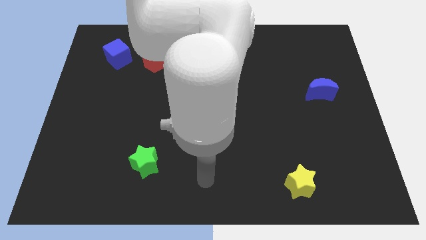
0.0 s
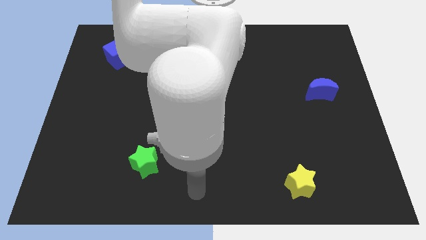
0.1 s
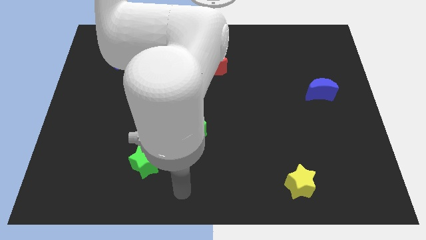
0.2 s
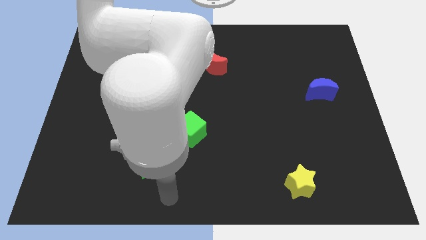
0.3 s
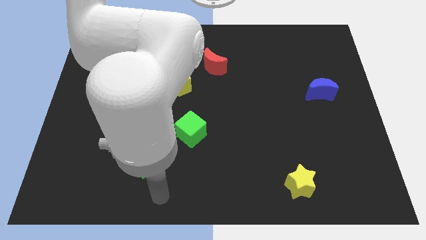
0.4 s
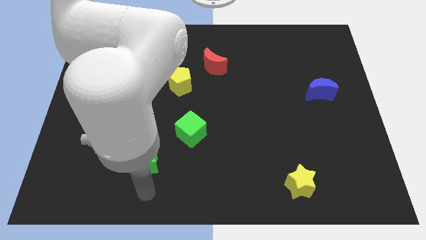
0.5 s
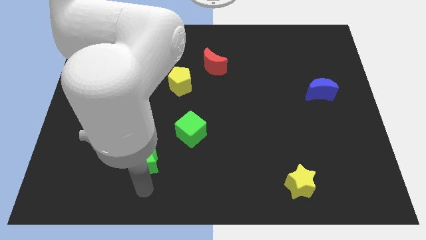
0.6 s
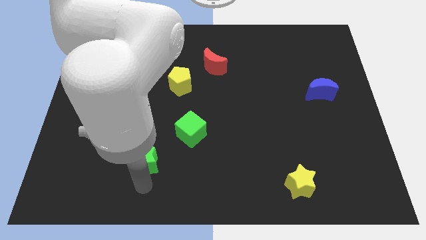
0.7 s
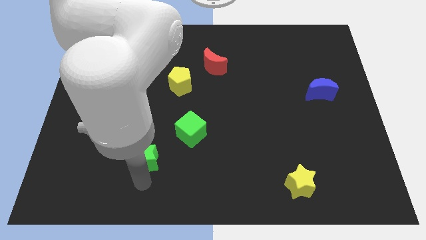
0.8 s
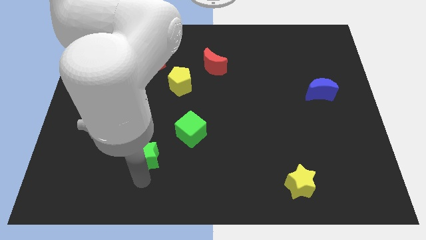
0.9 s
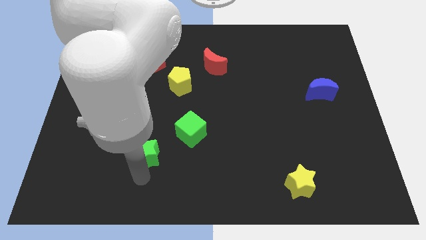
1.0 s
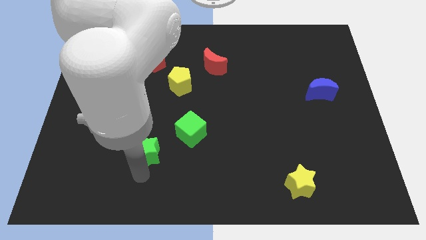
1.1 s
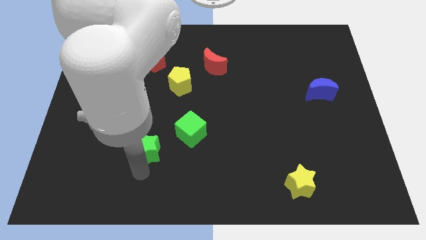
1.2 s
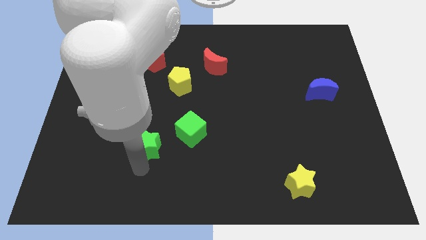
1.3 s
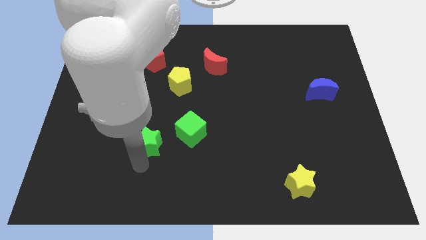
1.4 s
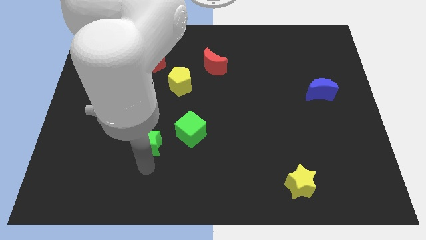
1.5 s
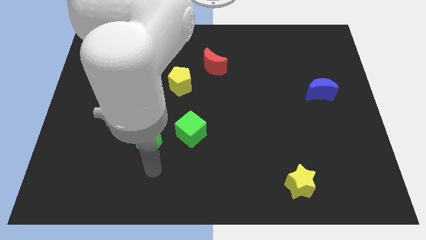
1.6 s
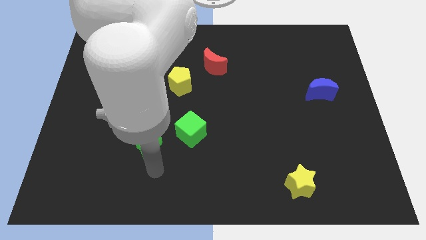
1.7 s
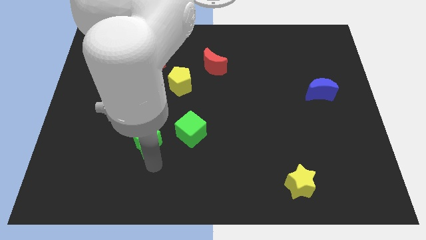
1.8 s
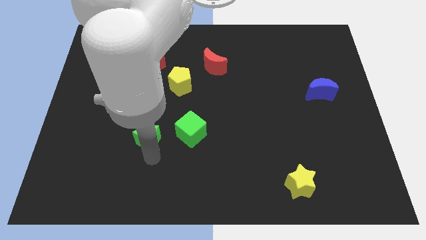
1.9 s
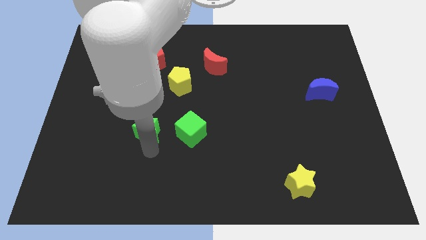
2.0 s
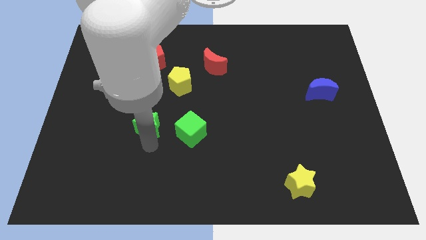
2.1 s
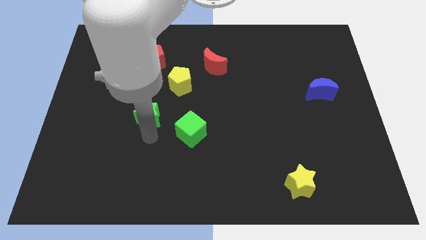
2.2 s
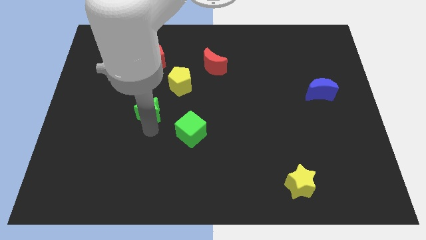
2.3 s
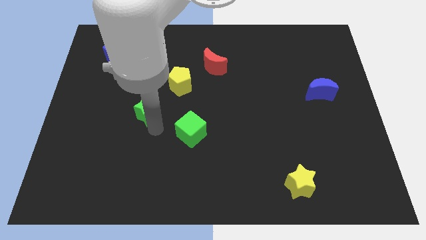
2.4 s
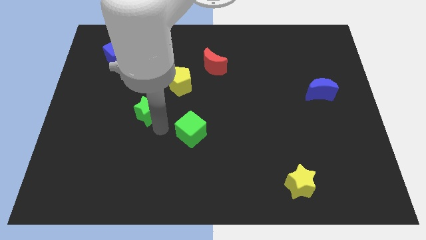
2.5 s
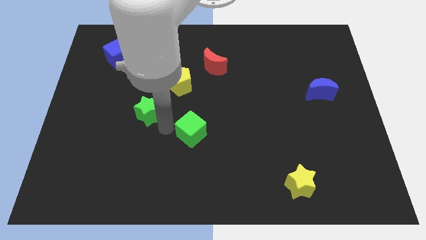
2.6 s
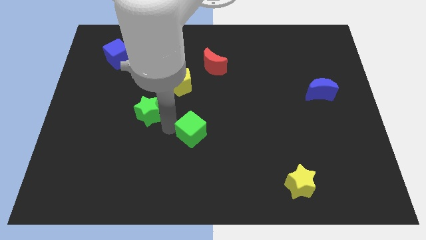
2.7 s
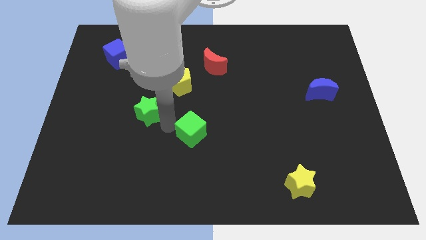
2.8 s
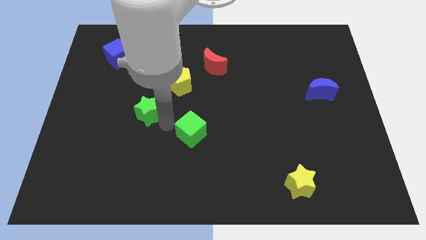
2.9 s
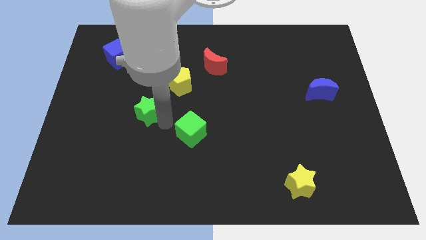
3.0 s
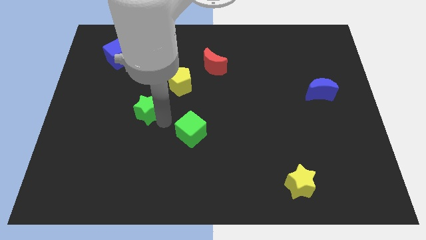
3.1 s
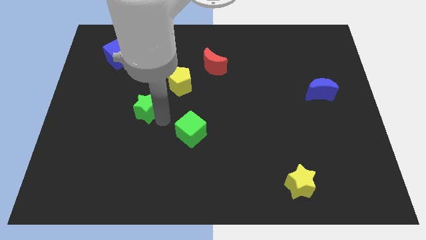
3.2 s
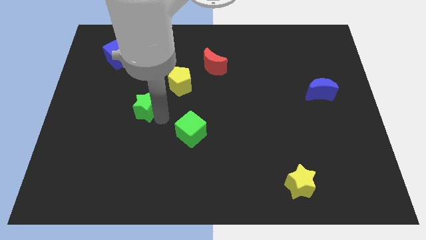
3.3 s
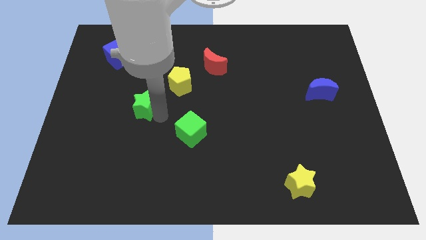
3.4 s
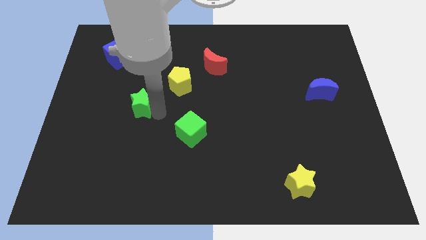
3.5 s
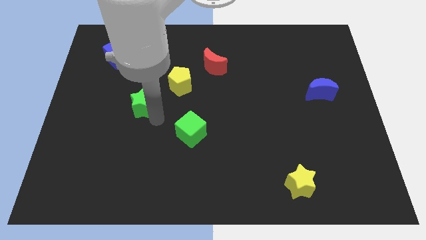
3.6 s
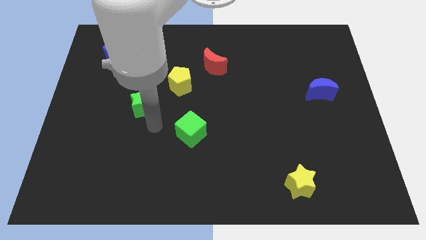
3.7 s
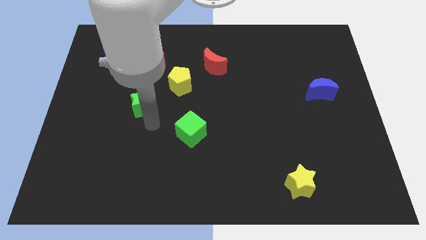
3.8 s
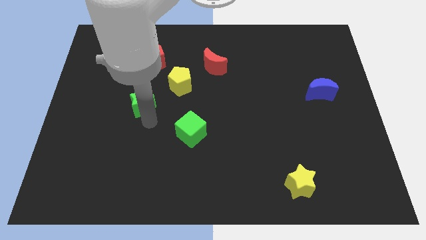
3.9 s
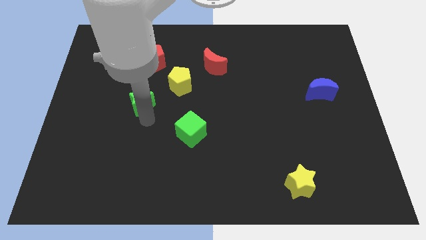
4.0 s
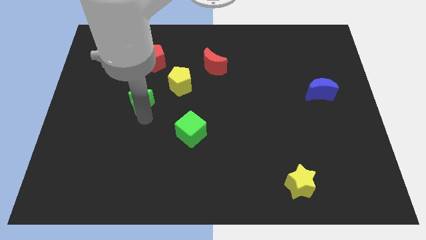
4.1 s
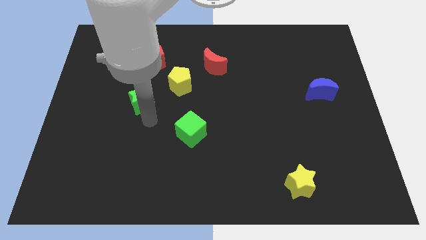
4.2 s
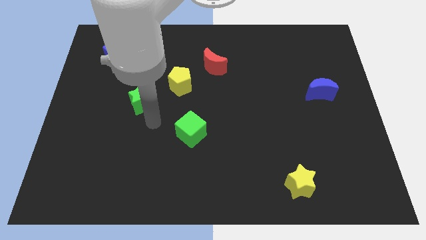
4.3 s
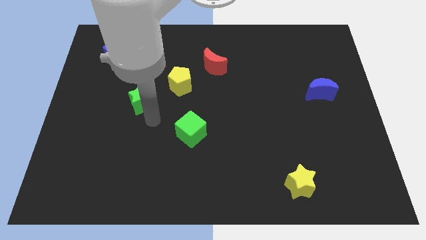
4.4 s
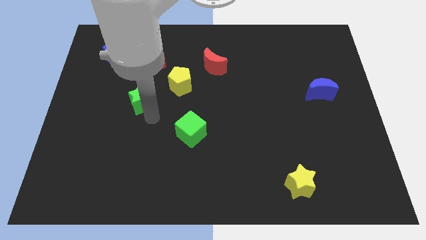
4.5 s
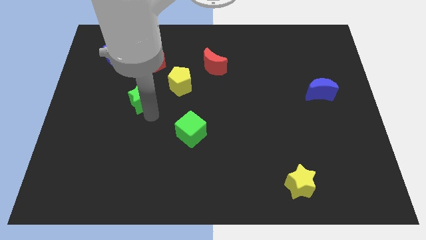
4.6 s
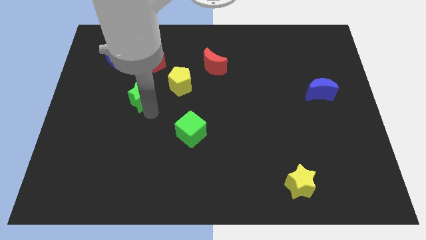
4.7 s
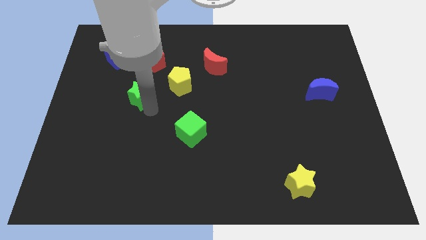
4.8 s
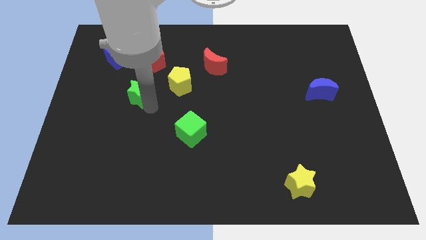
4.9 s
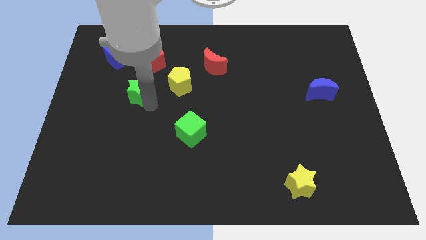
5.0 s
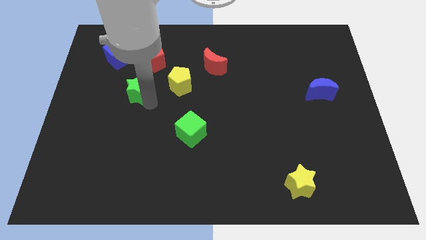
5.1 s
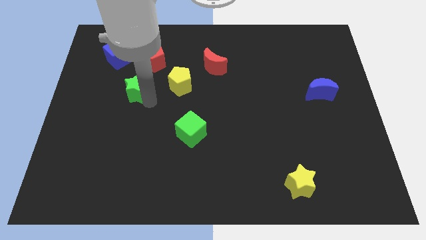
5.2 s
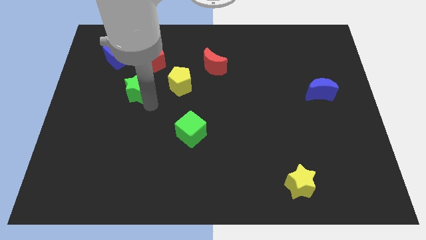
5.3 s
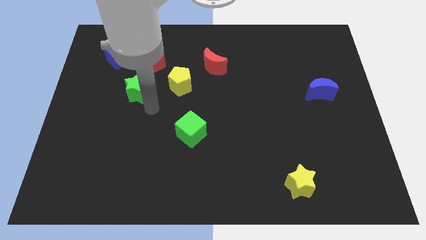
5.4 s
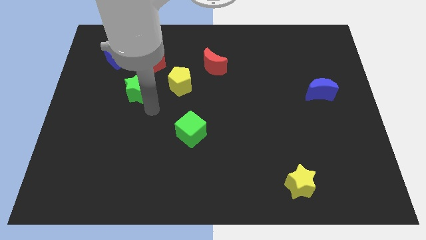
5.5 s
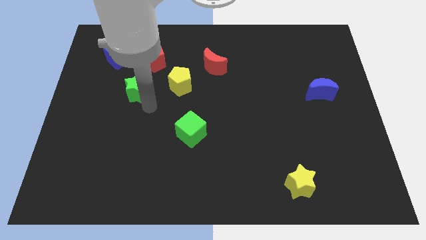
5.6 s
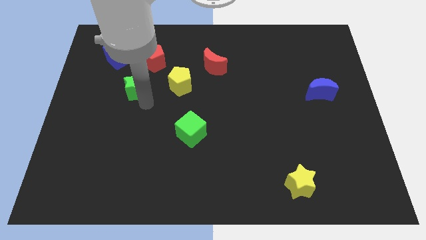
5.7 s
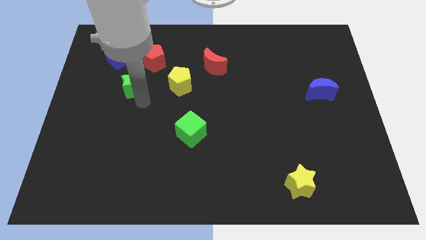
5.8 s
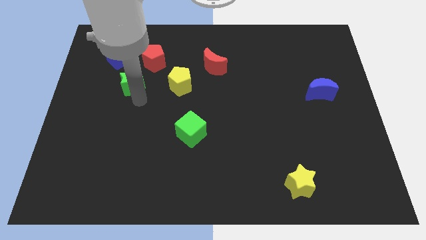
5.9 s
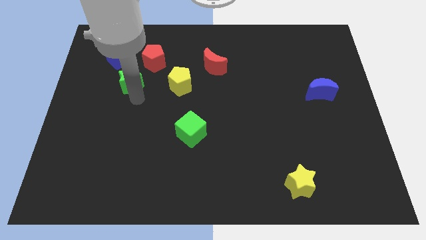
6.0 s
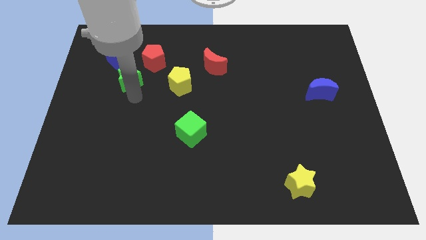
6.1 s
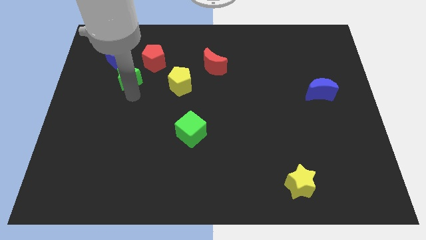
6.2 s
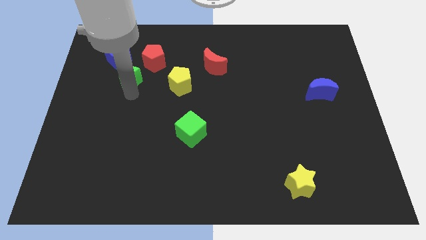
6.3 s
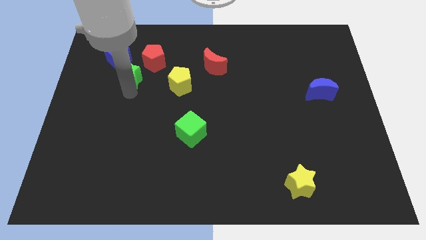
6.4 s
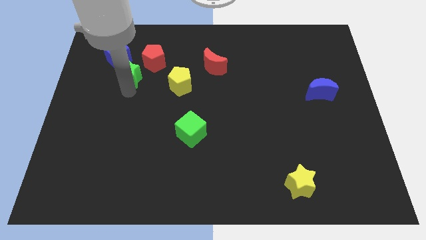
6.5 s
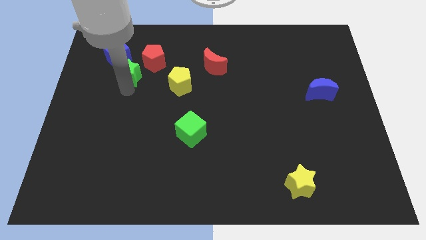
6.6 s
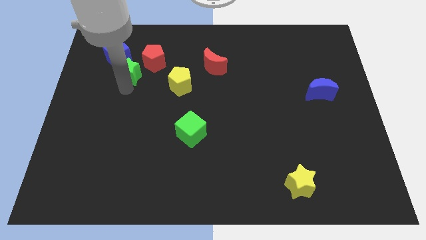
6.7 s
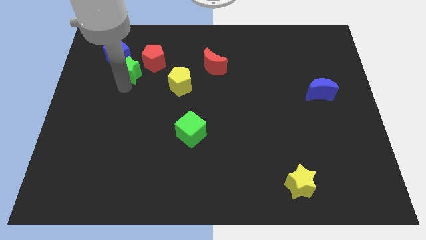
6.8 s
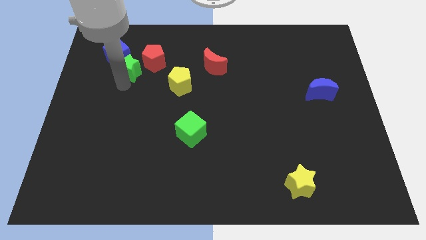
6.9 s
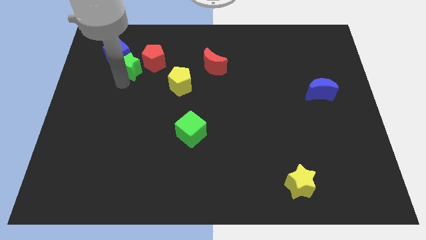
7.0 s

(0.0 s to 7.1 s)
slide the green star next to the blue cube

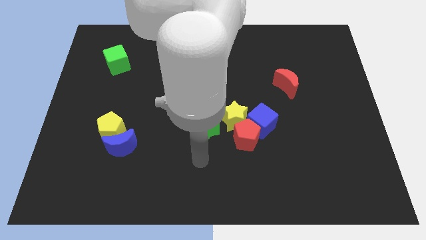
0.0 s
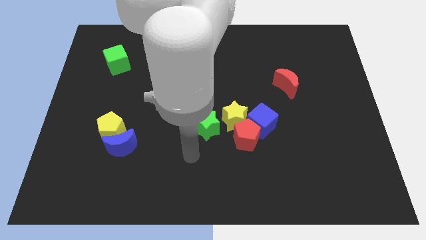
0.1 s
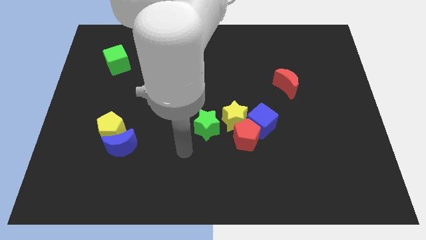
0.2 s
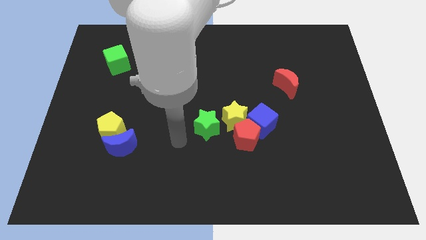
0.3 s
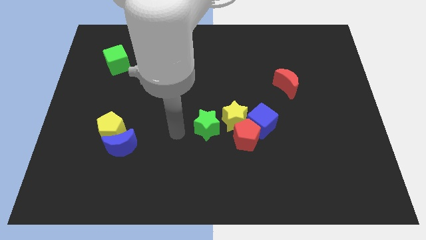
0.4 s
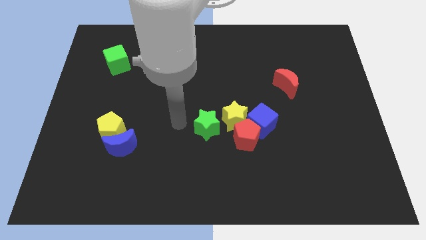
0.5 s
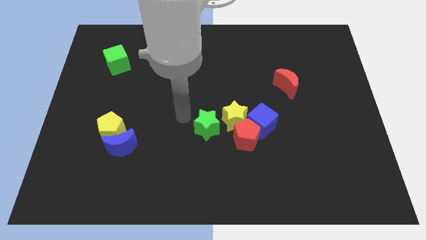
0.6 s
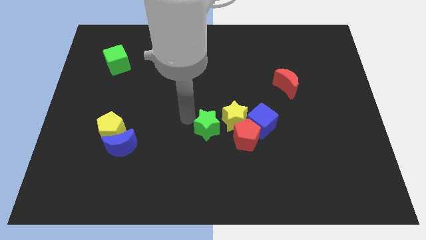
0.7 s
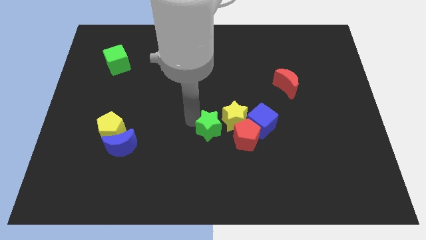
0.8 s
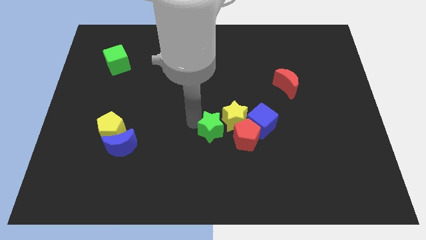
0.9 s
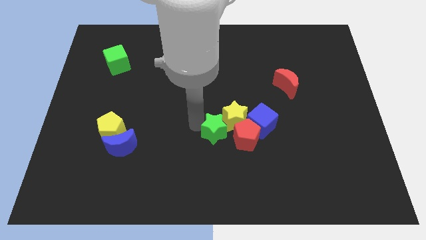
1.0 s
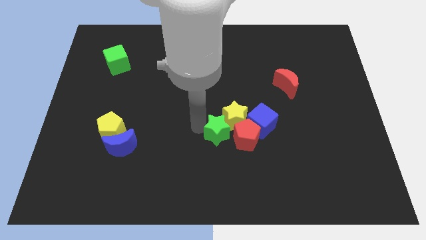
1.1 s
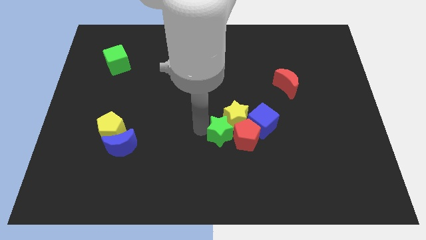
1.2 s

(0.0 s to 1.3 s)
push the green star to the red pentagon
